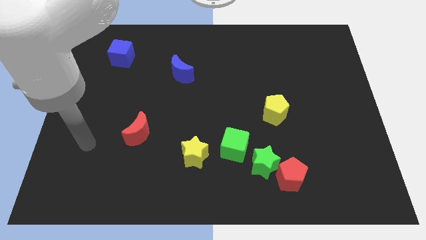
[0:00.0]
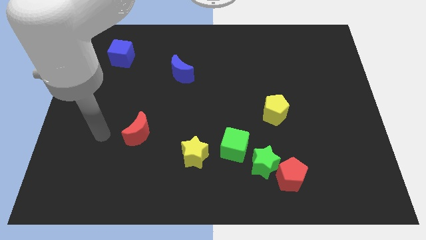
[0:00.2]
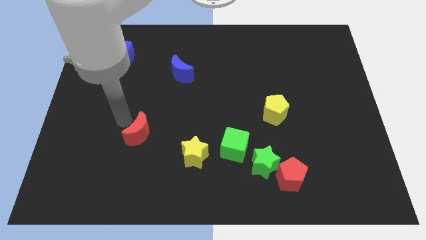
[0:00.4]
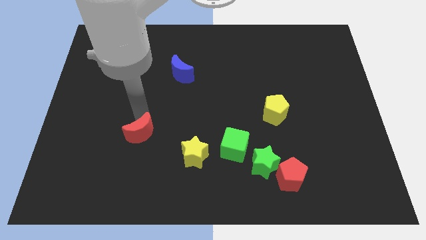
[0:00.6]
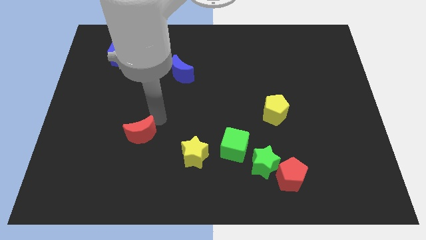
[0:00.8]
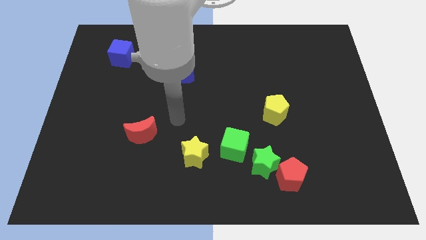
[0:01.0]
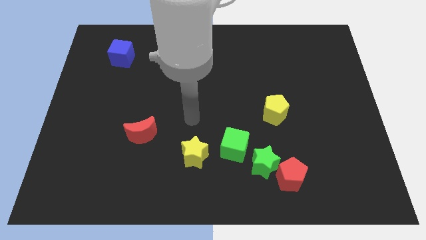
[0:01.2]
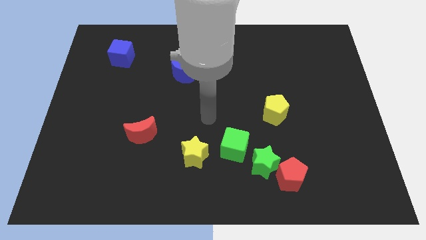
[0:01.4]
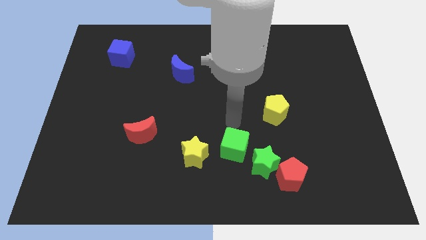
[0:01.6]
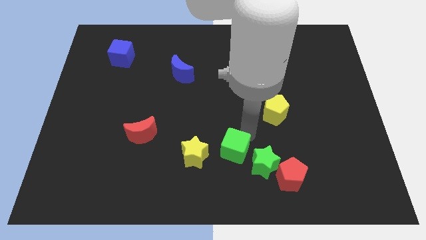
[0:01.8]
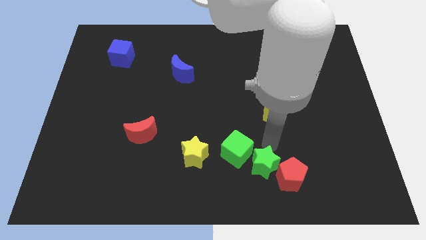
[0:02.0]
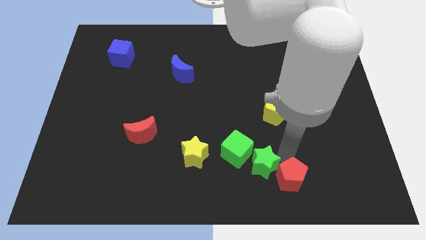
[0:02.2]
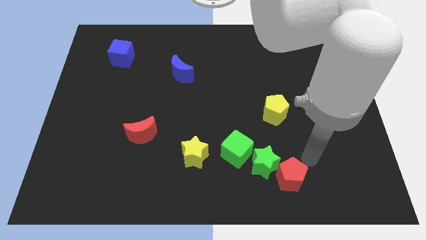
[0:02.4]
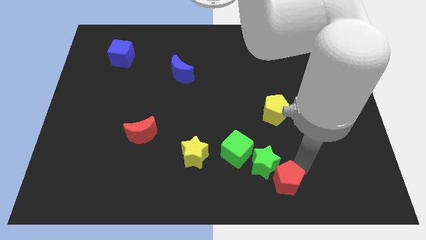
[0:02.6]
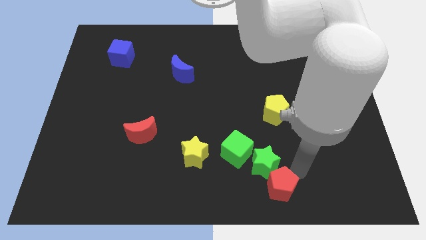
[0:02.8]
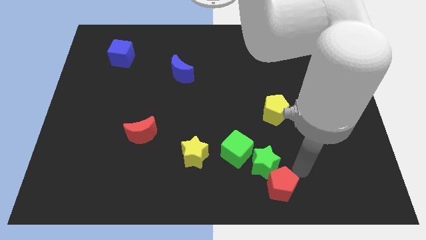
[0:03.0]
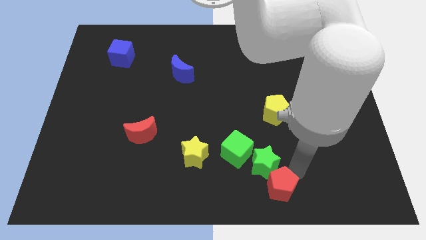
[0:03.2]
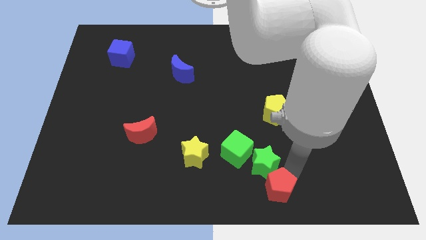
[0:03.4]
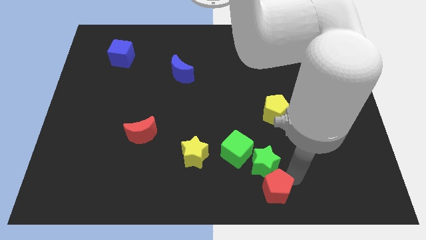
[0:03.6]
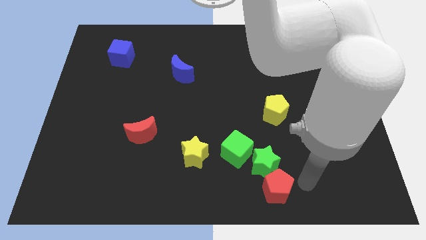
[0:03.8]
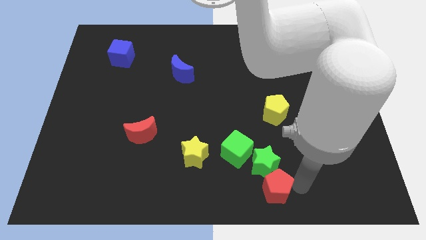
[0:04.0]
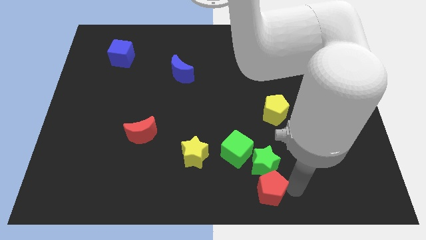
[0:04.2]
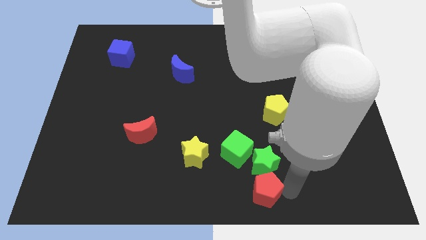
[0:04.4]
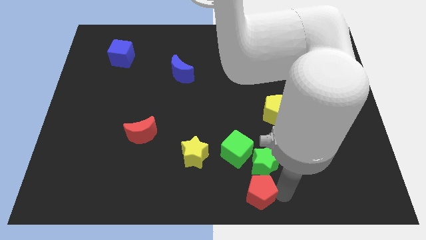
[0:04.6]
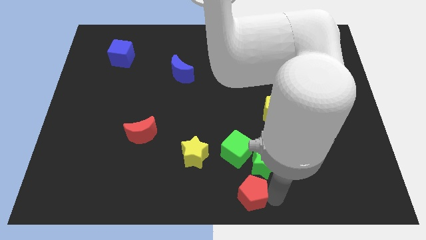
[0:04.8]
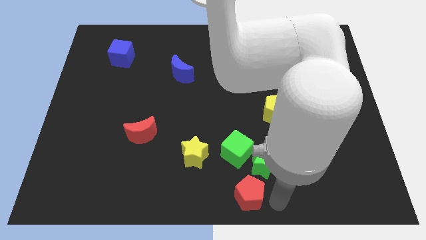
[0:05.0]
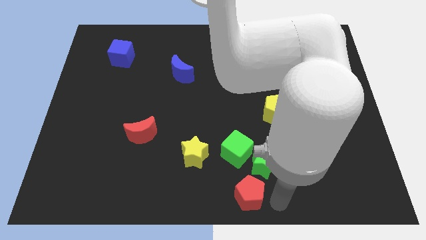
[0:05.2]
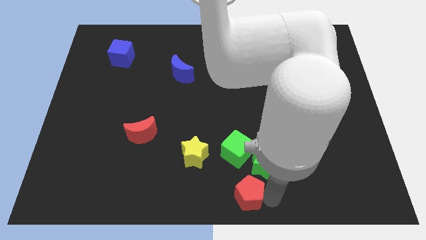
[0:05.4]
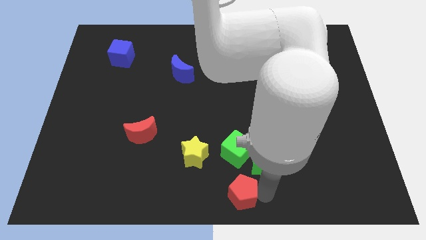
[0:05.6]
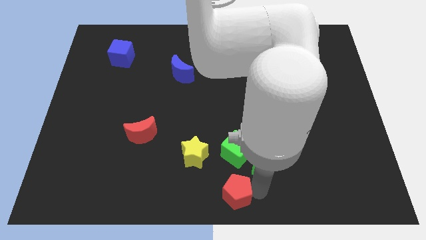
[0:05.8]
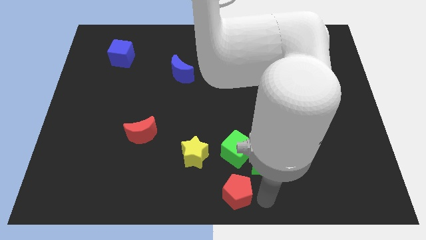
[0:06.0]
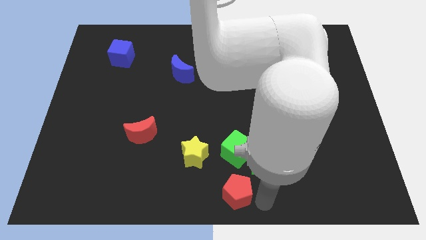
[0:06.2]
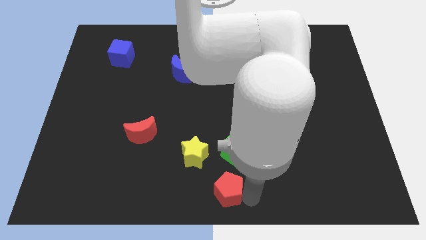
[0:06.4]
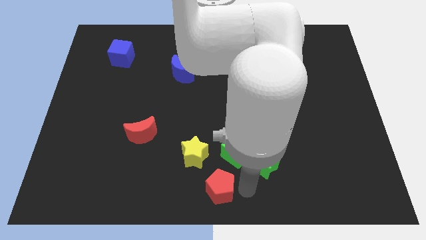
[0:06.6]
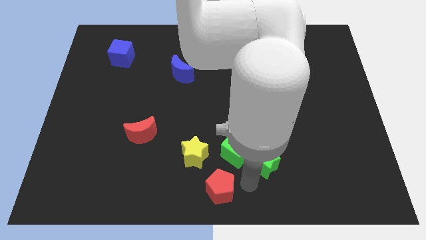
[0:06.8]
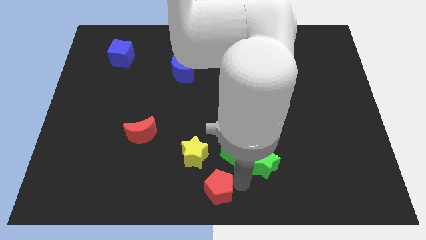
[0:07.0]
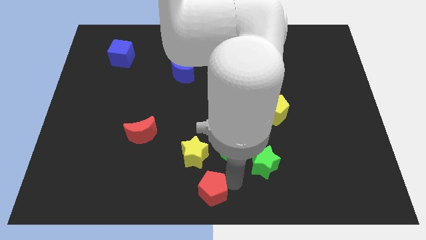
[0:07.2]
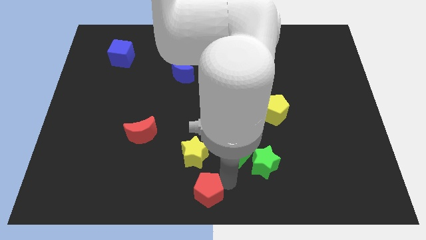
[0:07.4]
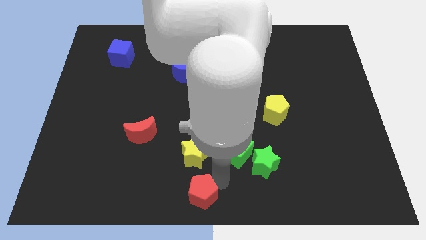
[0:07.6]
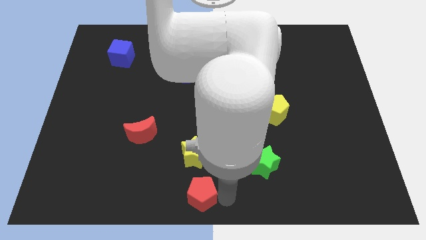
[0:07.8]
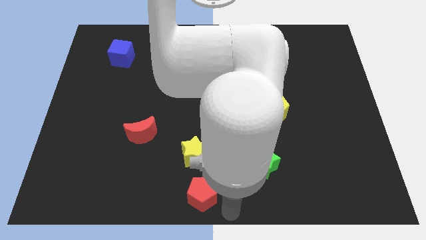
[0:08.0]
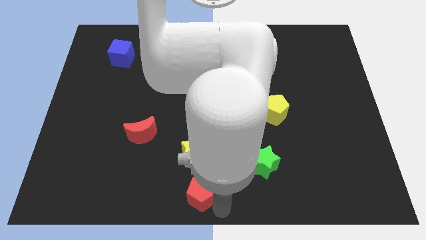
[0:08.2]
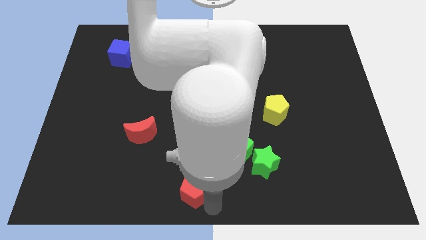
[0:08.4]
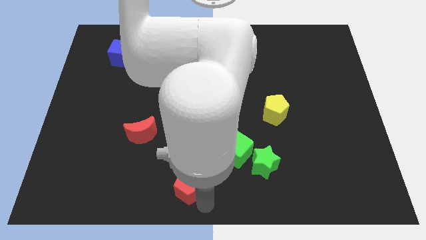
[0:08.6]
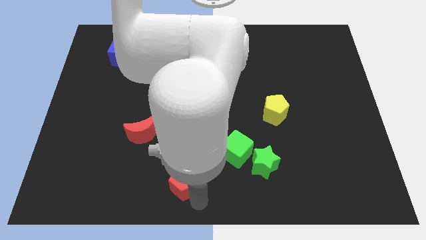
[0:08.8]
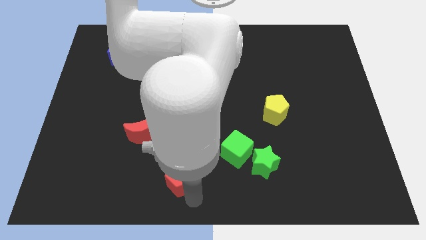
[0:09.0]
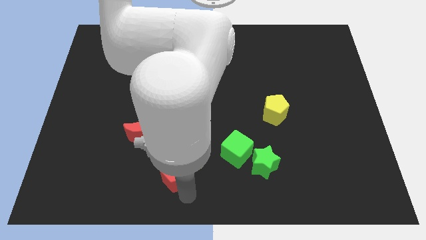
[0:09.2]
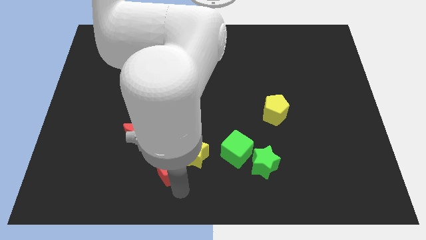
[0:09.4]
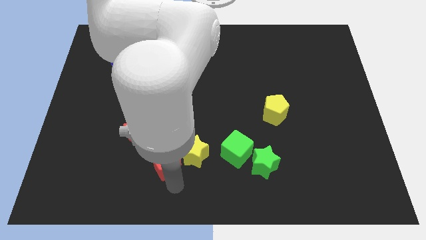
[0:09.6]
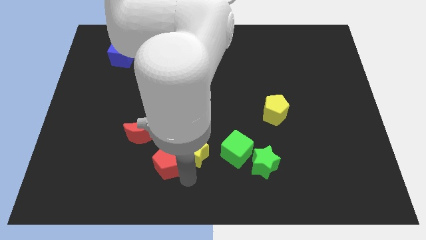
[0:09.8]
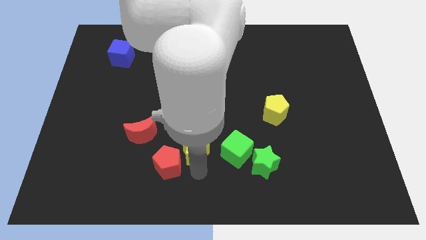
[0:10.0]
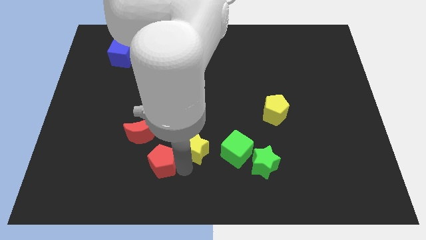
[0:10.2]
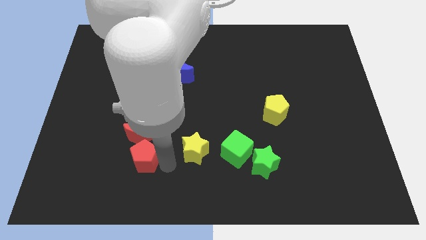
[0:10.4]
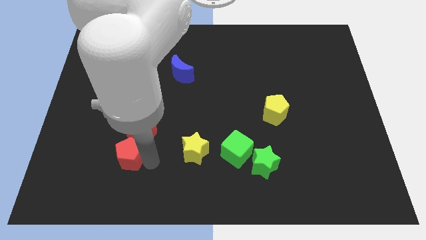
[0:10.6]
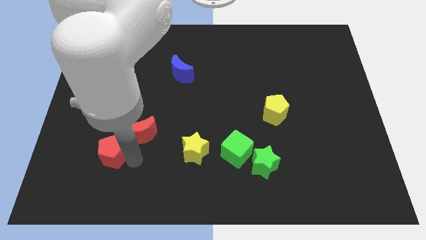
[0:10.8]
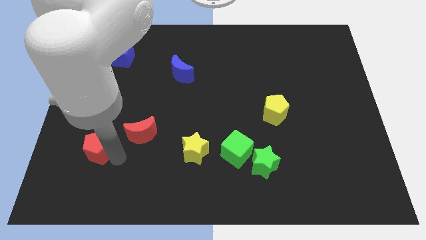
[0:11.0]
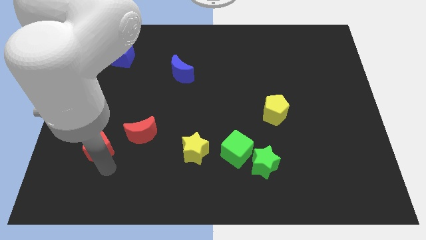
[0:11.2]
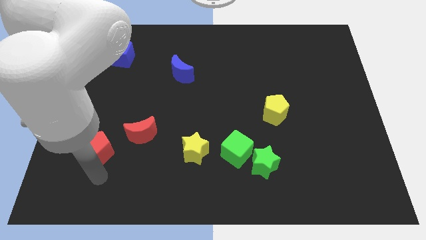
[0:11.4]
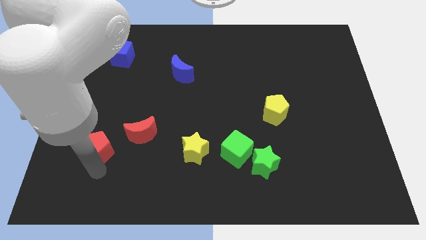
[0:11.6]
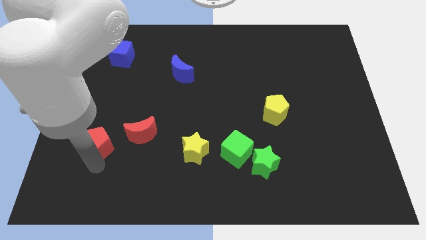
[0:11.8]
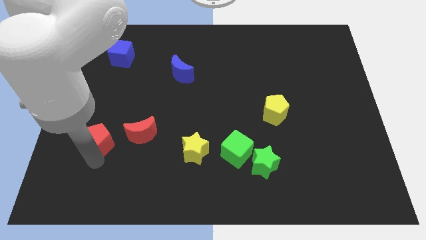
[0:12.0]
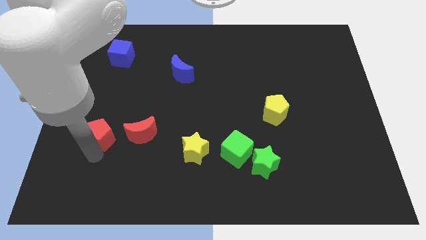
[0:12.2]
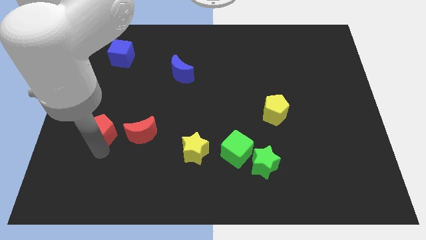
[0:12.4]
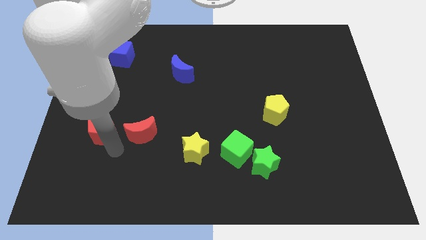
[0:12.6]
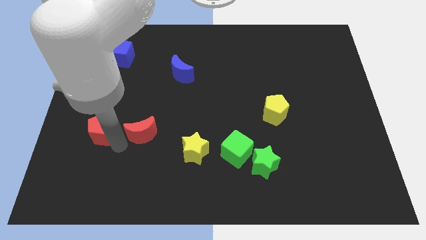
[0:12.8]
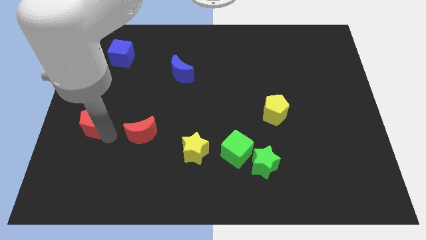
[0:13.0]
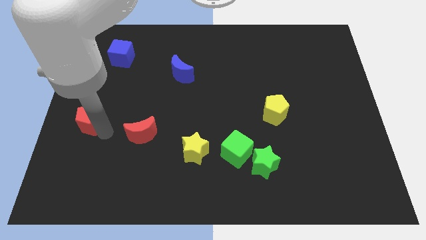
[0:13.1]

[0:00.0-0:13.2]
move the red pentagon to the center left
